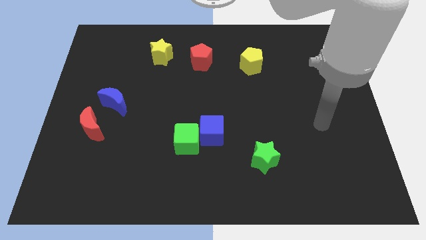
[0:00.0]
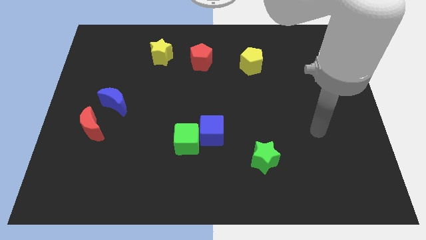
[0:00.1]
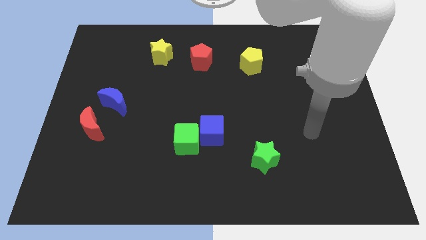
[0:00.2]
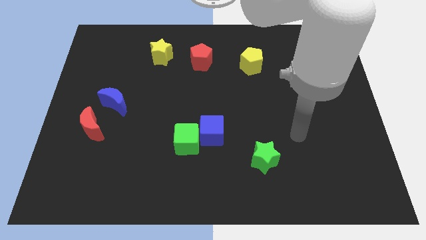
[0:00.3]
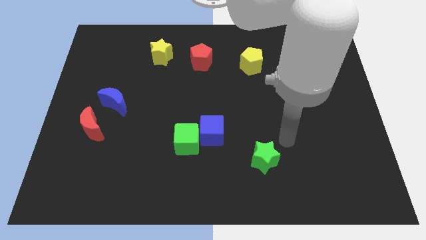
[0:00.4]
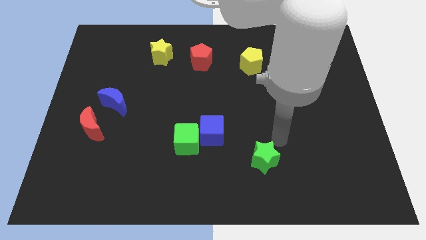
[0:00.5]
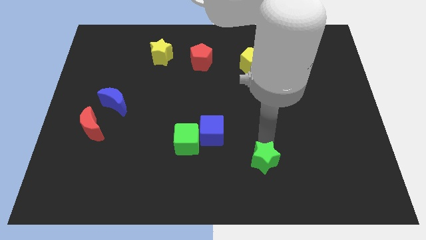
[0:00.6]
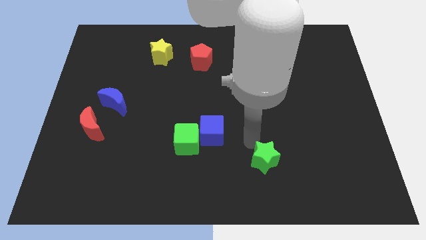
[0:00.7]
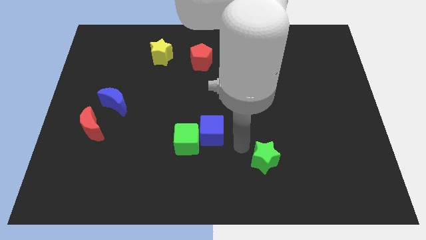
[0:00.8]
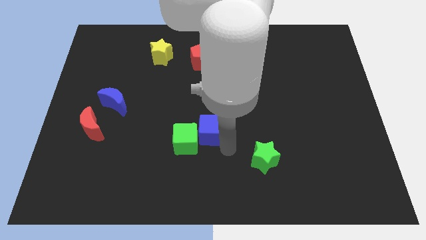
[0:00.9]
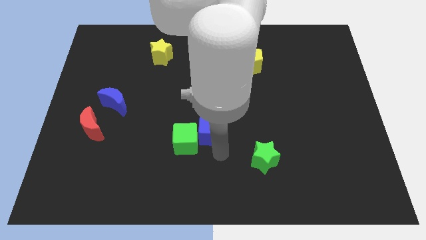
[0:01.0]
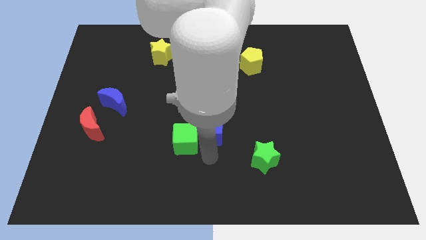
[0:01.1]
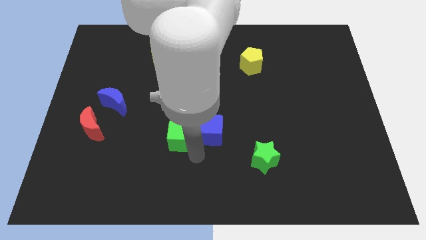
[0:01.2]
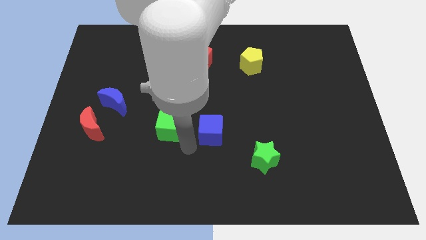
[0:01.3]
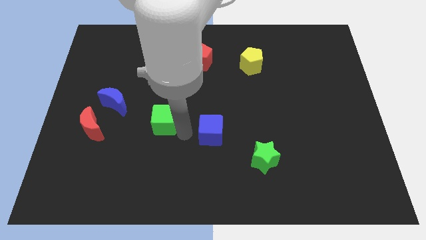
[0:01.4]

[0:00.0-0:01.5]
separate the blue cube from the green cube

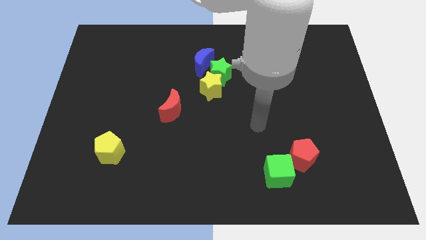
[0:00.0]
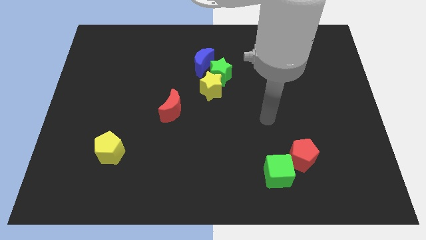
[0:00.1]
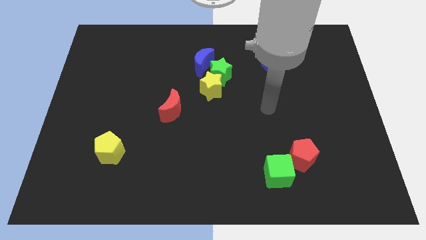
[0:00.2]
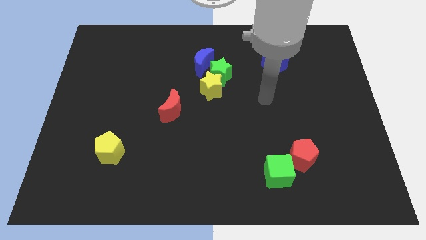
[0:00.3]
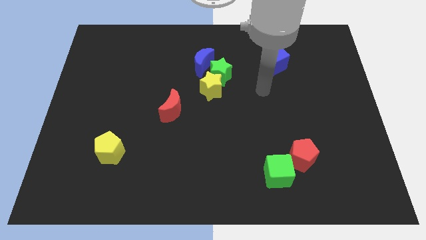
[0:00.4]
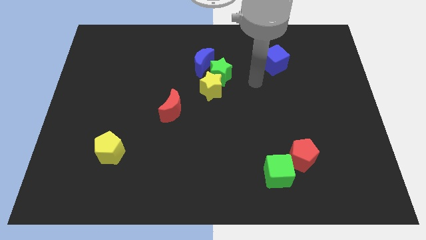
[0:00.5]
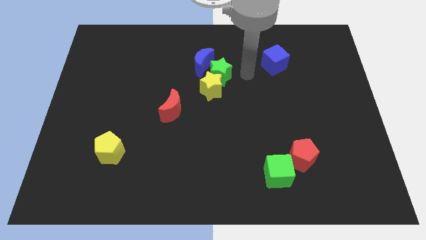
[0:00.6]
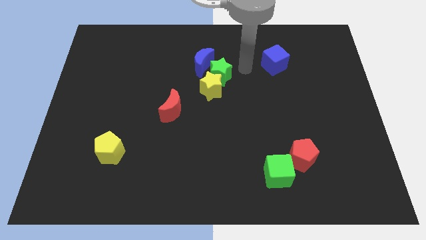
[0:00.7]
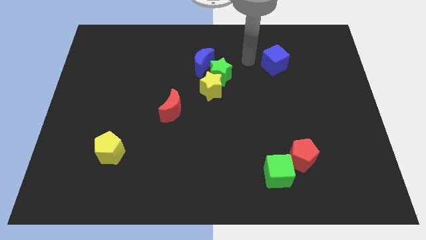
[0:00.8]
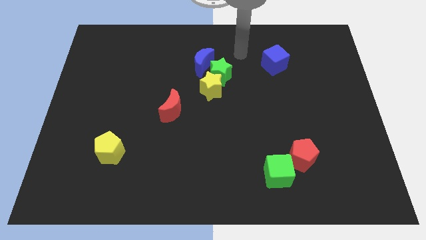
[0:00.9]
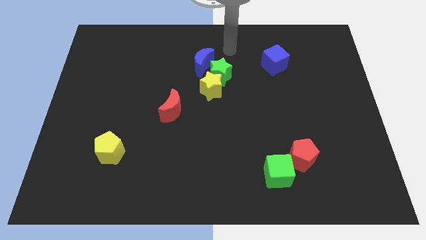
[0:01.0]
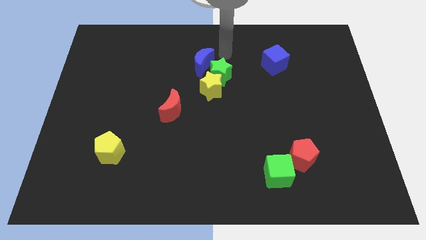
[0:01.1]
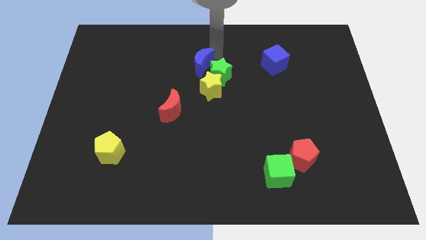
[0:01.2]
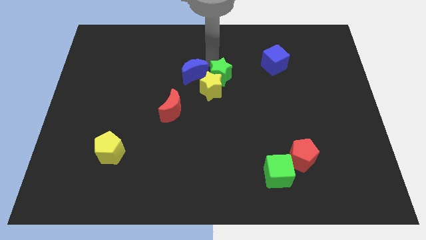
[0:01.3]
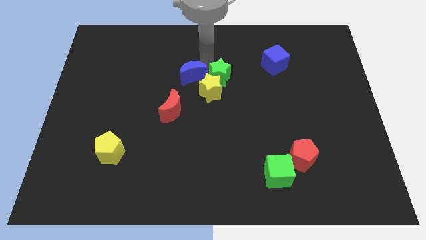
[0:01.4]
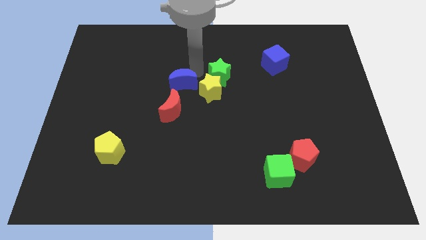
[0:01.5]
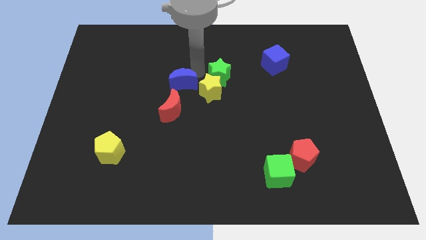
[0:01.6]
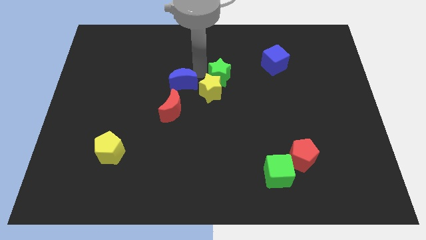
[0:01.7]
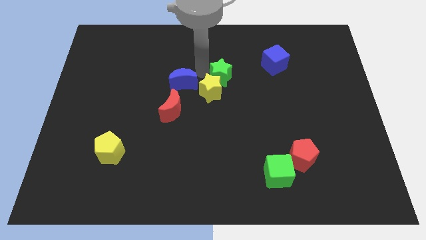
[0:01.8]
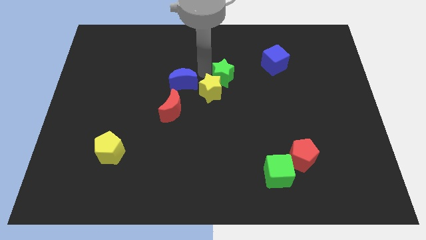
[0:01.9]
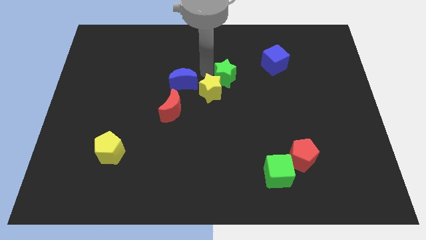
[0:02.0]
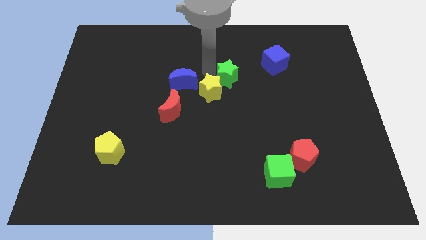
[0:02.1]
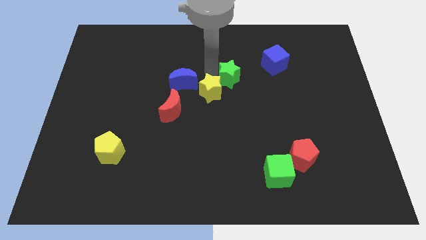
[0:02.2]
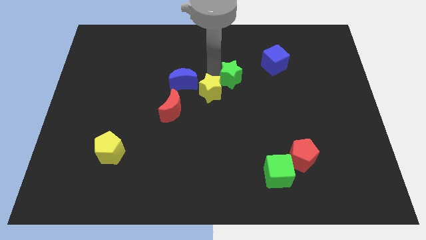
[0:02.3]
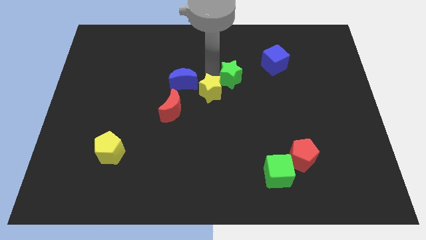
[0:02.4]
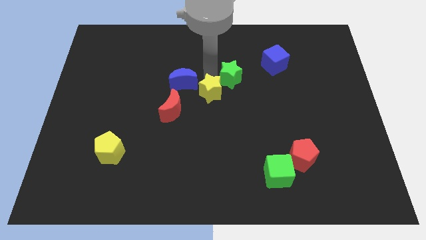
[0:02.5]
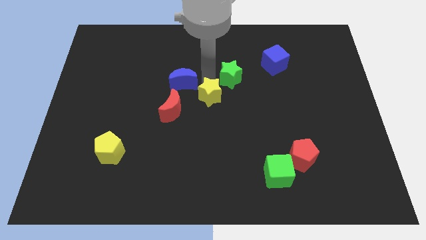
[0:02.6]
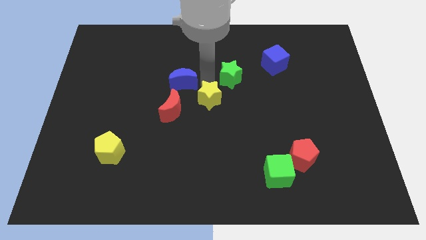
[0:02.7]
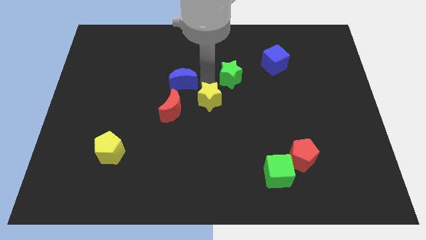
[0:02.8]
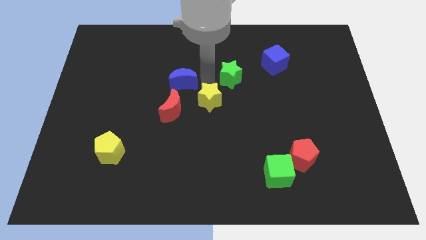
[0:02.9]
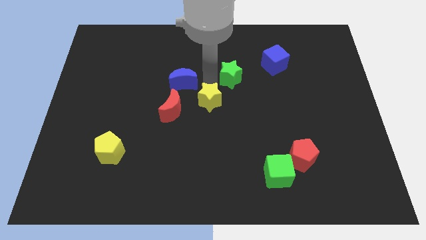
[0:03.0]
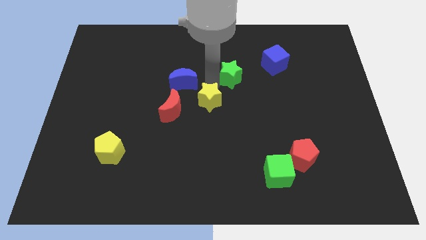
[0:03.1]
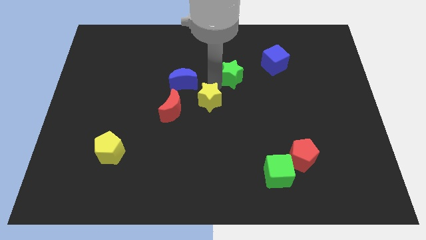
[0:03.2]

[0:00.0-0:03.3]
pull the green star apart from the yellow star and blue moon

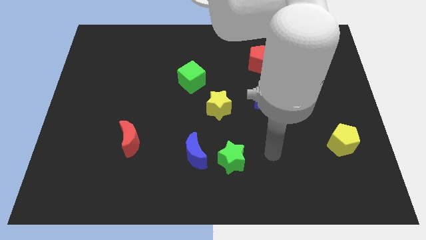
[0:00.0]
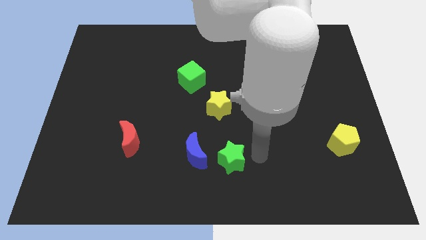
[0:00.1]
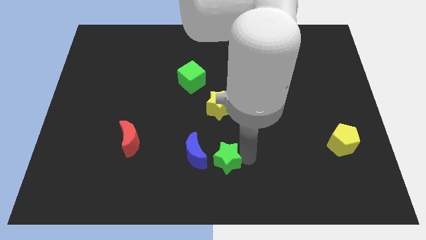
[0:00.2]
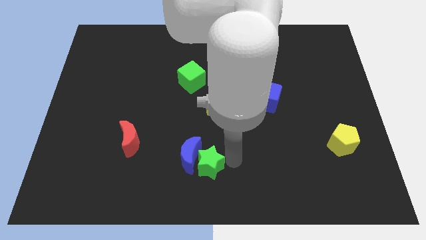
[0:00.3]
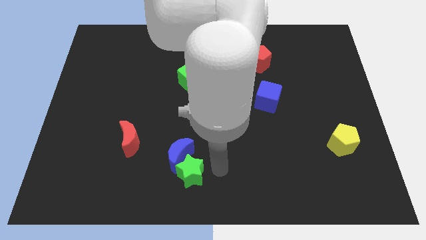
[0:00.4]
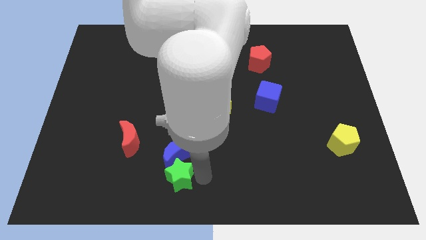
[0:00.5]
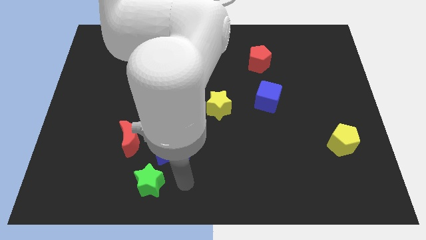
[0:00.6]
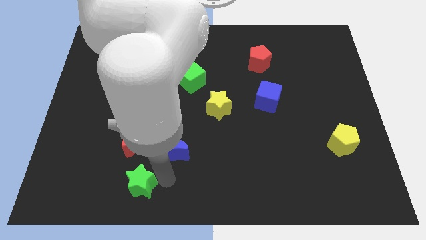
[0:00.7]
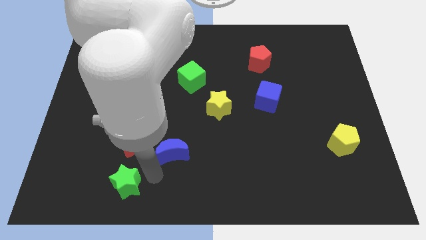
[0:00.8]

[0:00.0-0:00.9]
pull the blue moon apart from the green star

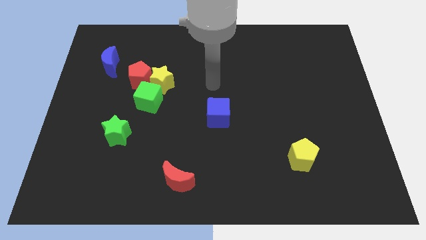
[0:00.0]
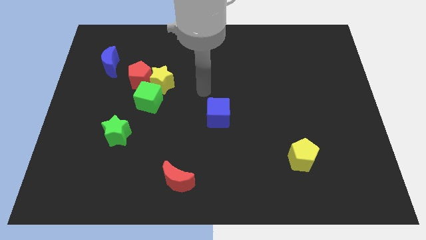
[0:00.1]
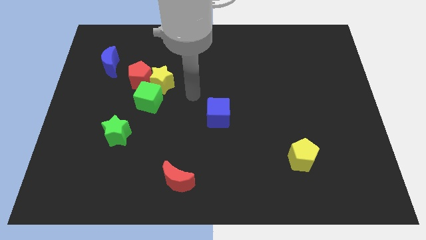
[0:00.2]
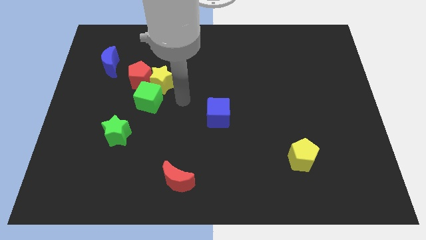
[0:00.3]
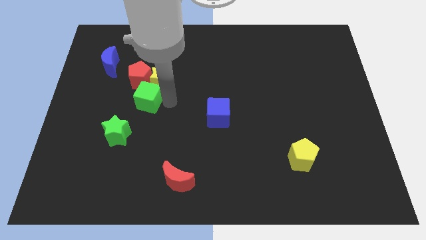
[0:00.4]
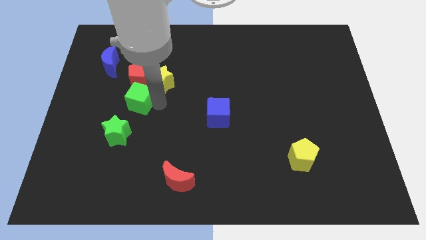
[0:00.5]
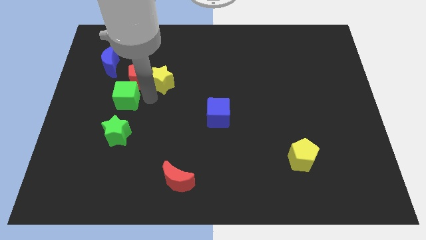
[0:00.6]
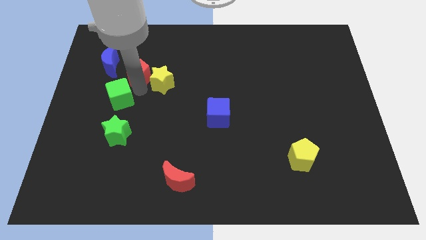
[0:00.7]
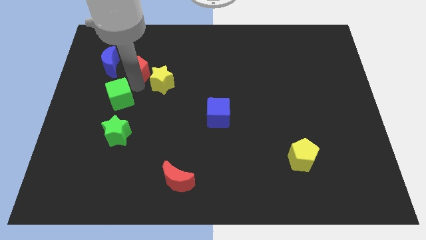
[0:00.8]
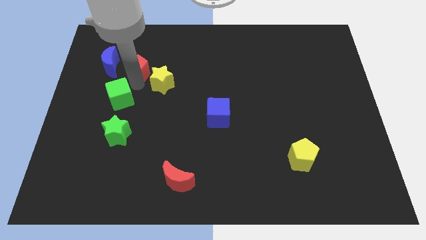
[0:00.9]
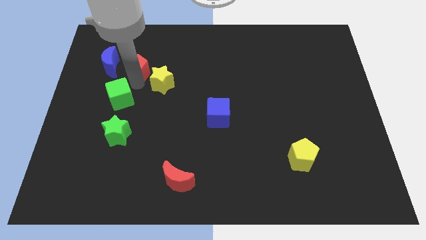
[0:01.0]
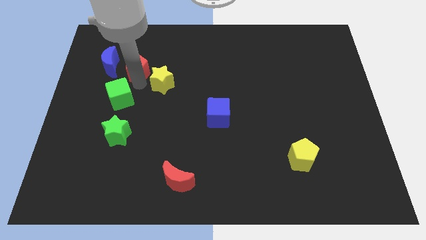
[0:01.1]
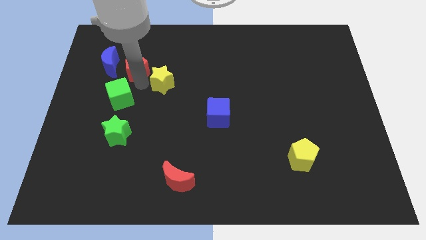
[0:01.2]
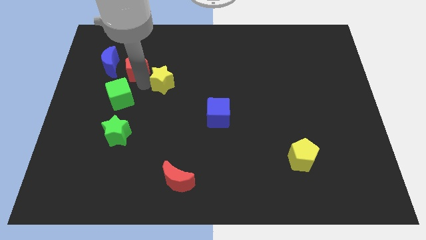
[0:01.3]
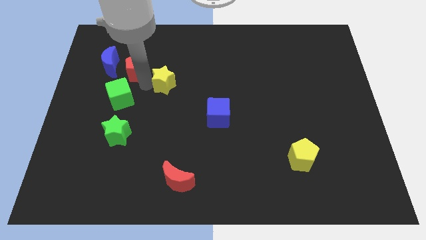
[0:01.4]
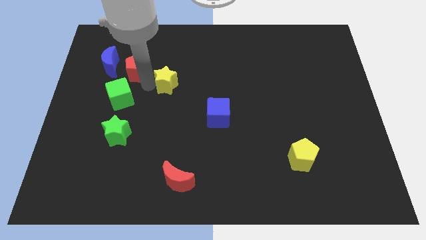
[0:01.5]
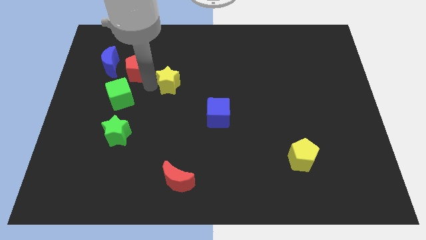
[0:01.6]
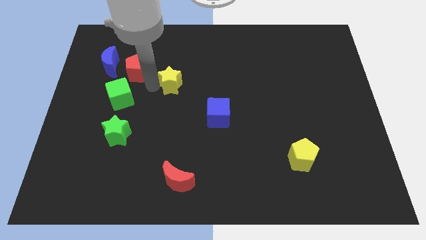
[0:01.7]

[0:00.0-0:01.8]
pull the yellow star apart from the red pentagon and green cube

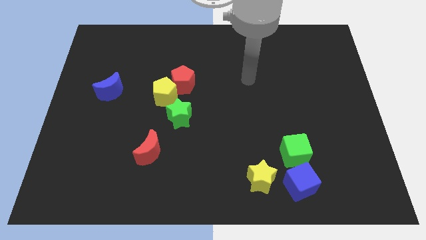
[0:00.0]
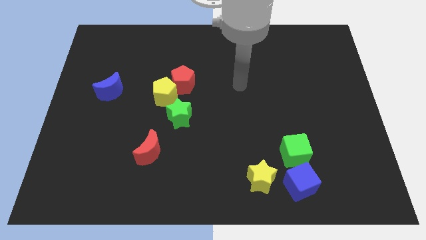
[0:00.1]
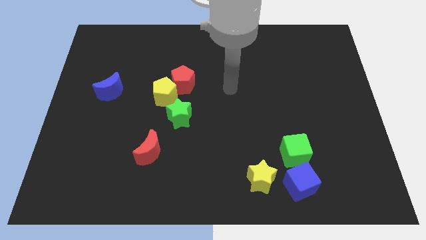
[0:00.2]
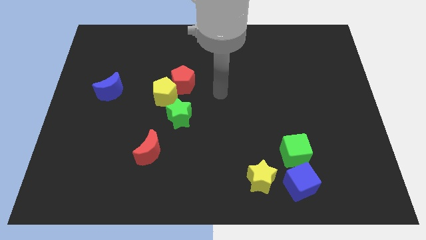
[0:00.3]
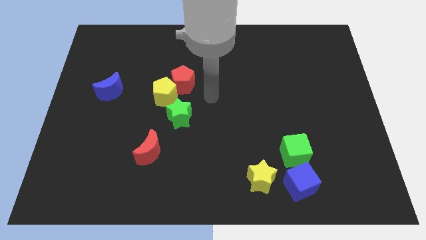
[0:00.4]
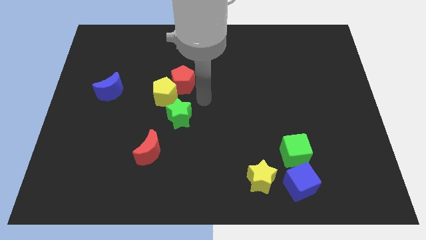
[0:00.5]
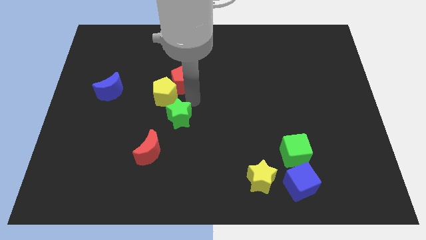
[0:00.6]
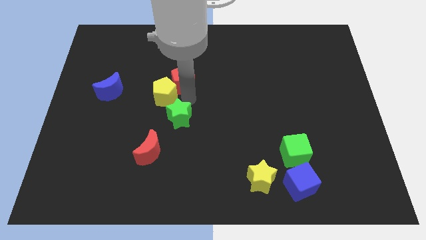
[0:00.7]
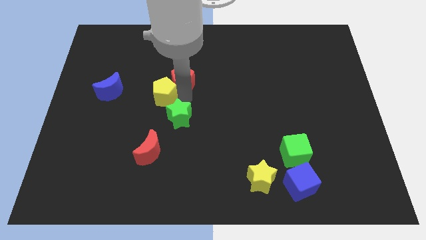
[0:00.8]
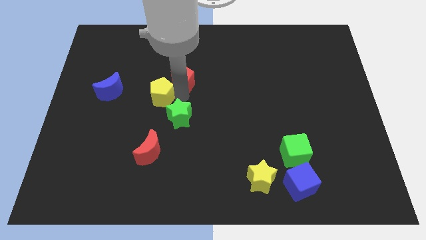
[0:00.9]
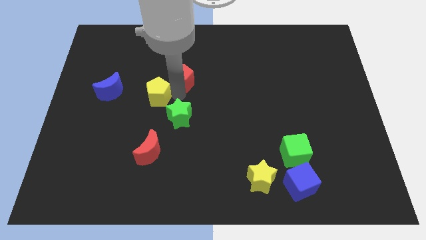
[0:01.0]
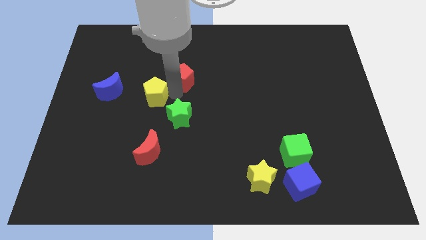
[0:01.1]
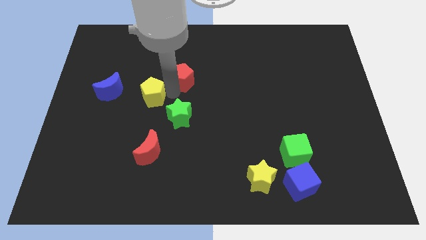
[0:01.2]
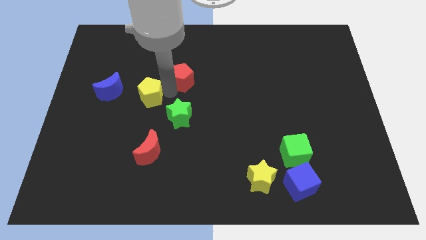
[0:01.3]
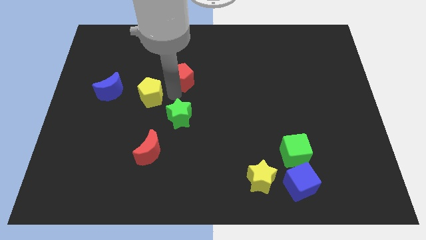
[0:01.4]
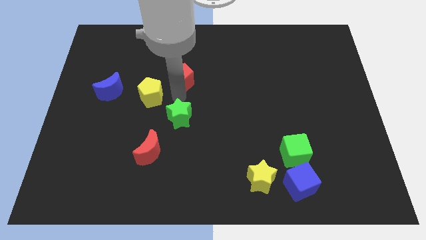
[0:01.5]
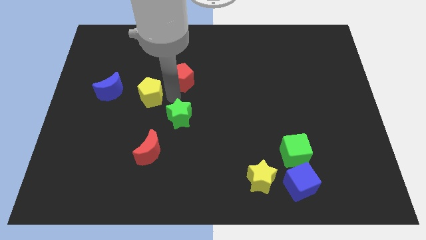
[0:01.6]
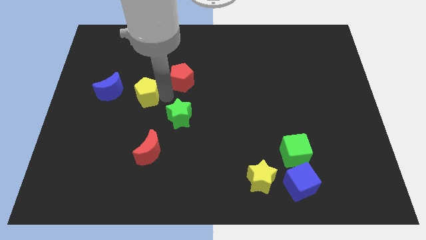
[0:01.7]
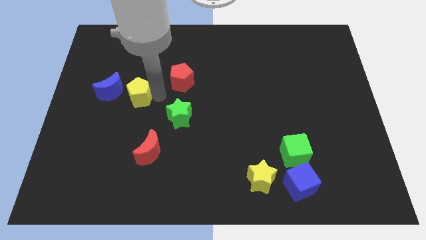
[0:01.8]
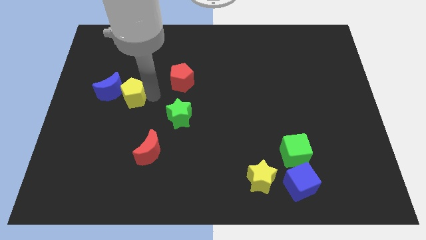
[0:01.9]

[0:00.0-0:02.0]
pull the yellow pentagon apart from the red pentagon and green star
